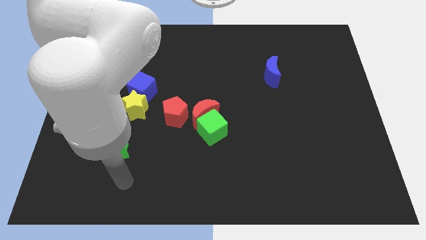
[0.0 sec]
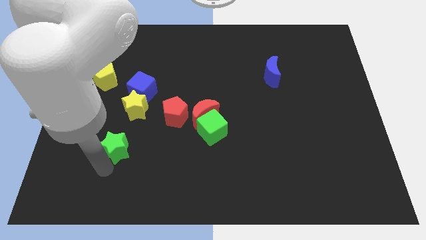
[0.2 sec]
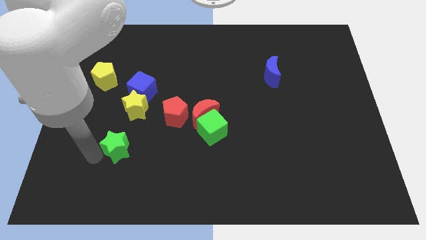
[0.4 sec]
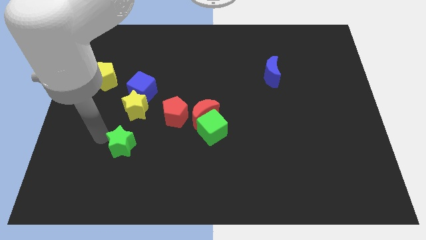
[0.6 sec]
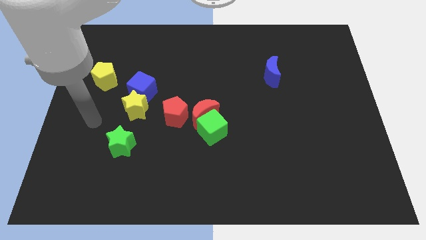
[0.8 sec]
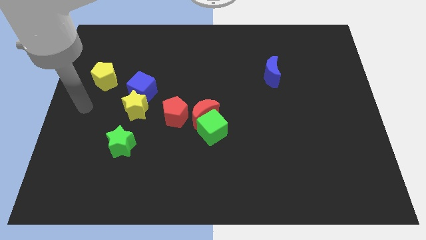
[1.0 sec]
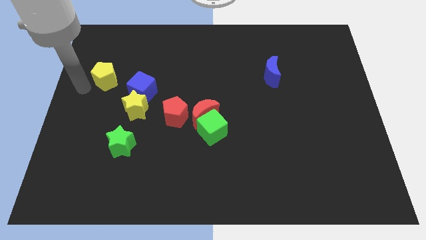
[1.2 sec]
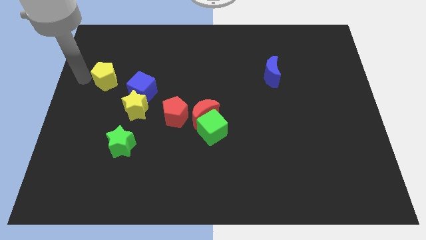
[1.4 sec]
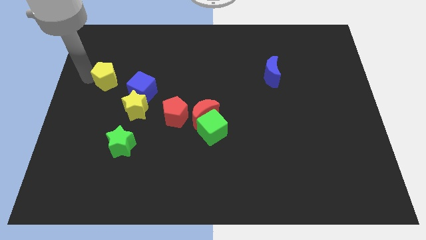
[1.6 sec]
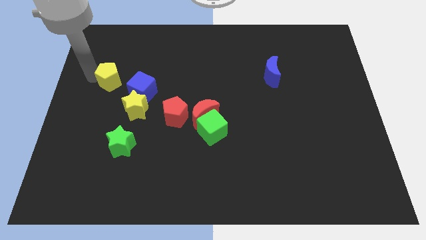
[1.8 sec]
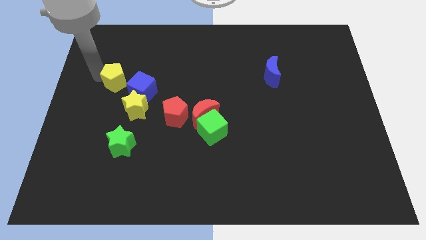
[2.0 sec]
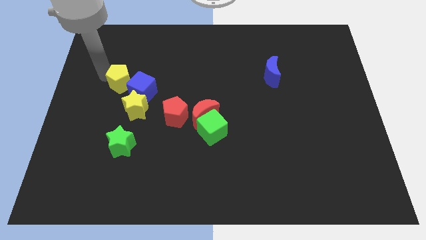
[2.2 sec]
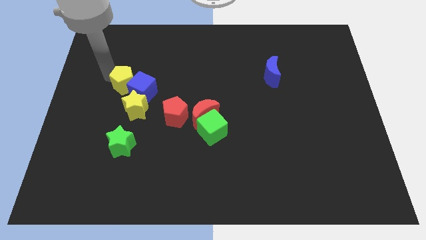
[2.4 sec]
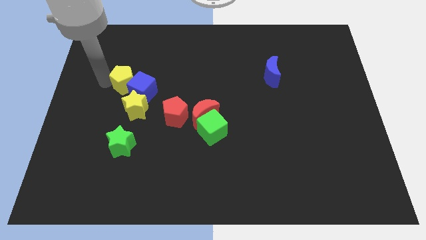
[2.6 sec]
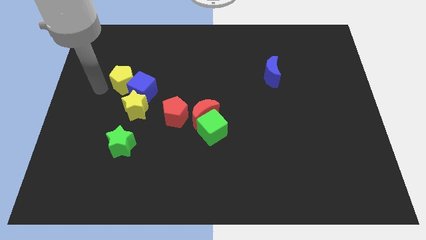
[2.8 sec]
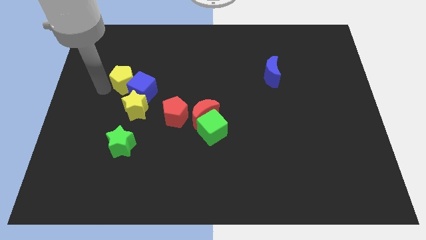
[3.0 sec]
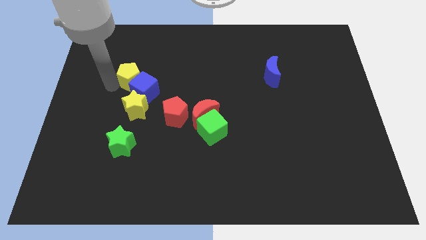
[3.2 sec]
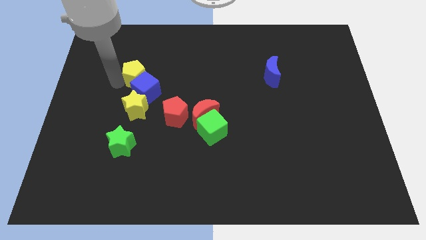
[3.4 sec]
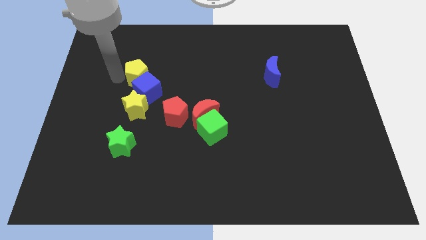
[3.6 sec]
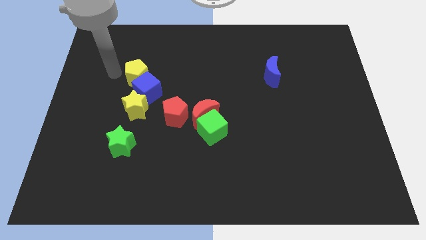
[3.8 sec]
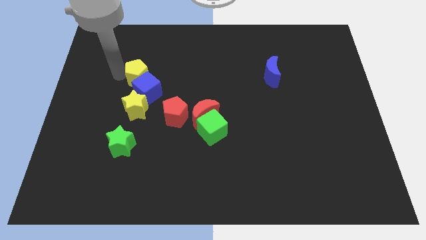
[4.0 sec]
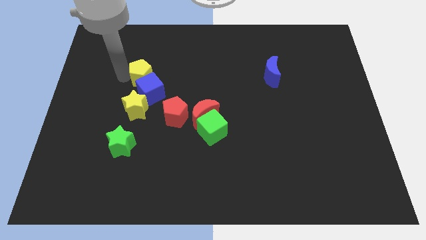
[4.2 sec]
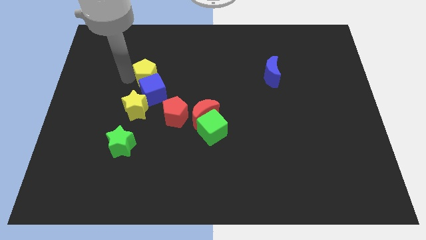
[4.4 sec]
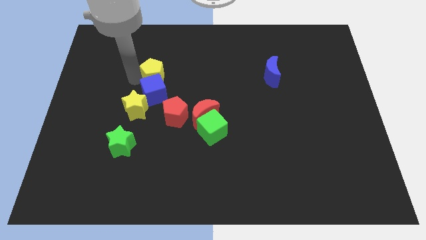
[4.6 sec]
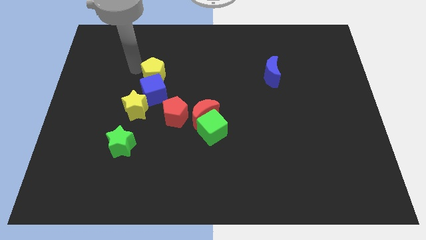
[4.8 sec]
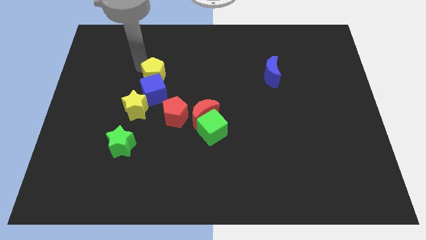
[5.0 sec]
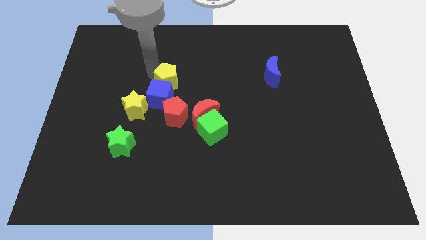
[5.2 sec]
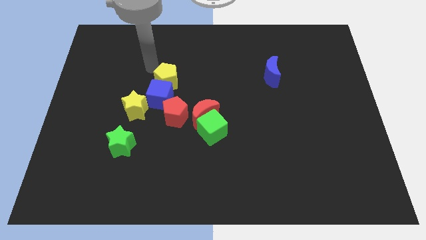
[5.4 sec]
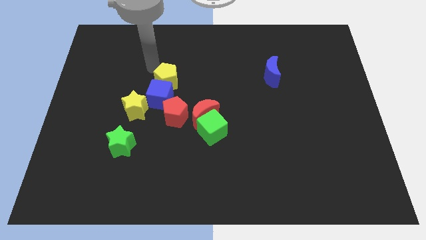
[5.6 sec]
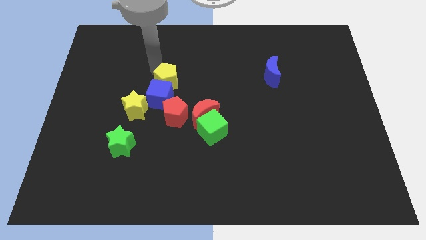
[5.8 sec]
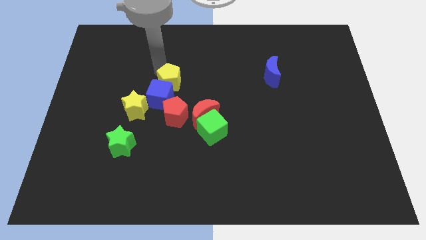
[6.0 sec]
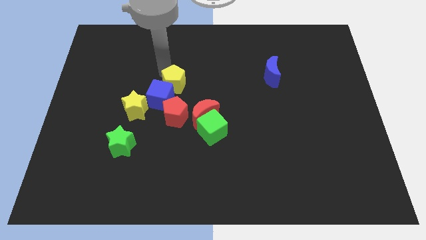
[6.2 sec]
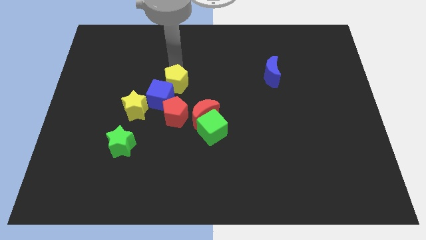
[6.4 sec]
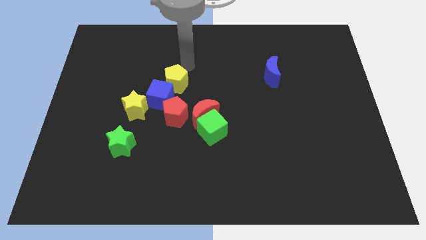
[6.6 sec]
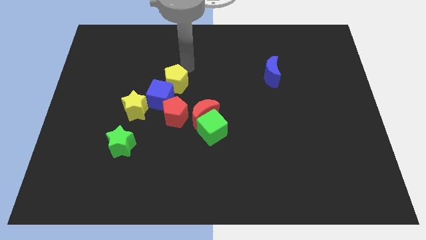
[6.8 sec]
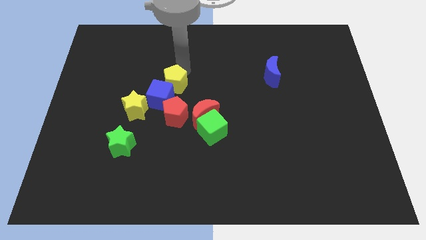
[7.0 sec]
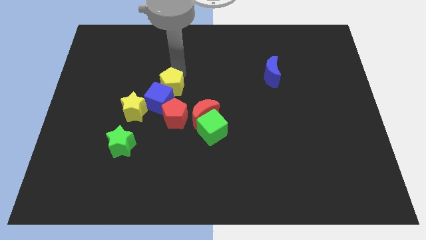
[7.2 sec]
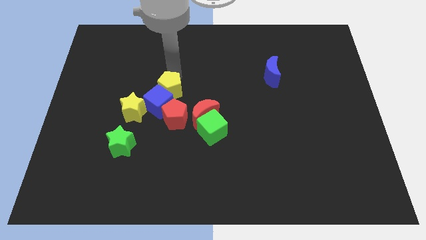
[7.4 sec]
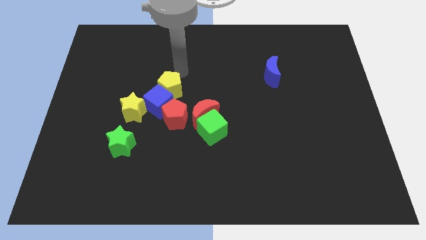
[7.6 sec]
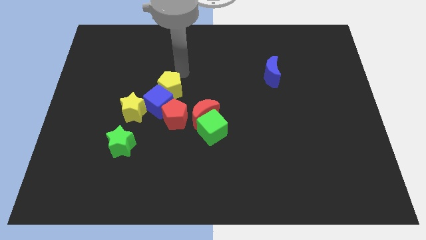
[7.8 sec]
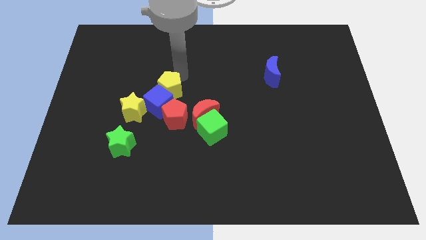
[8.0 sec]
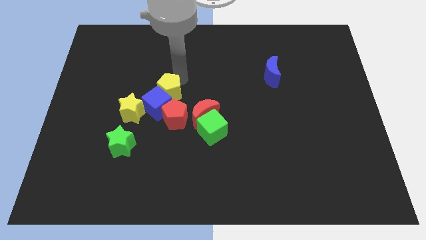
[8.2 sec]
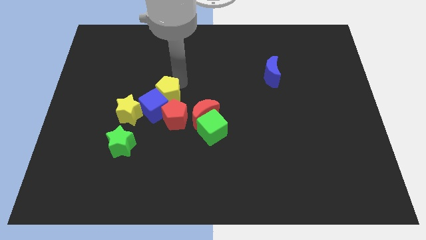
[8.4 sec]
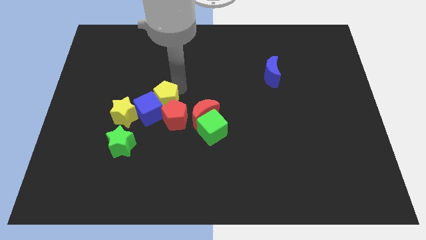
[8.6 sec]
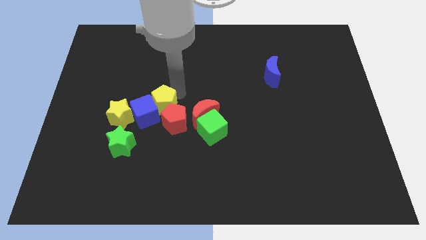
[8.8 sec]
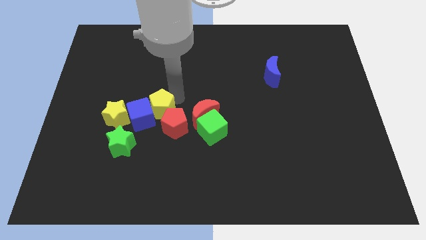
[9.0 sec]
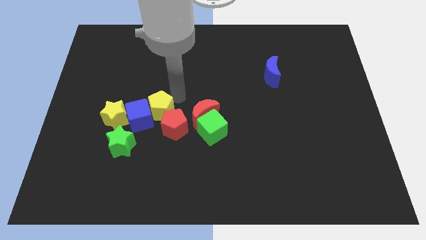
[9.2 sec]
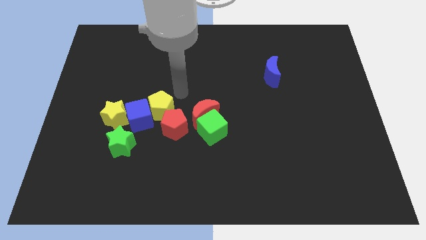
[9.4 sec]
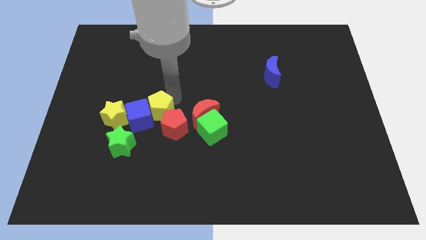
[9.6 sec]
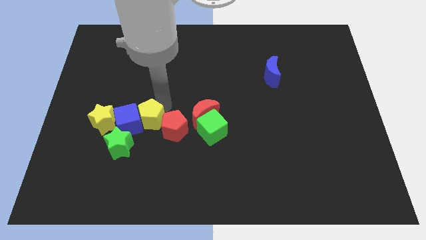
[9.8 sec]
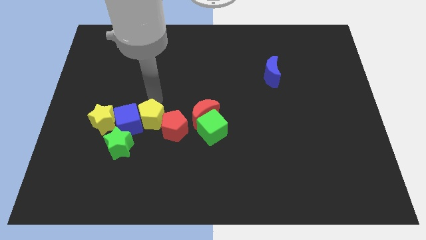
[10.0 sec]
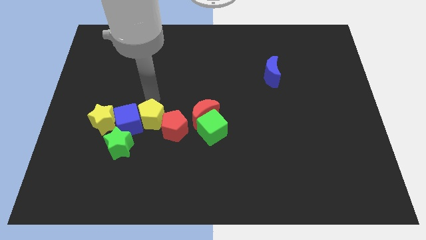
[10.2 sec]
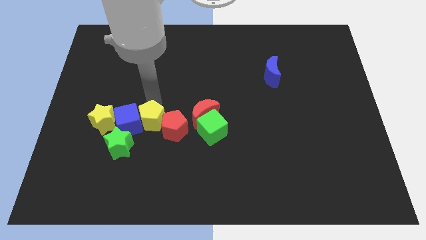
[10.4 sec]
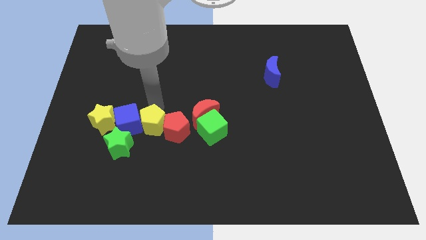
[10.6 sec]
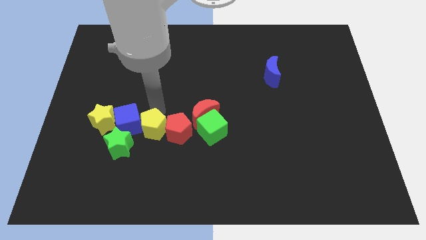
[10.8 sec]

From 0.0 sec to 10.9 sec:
push the yellow pentagon down and to the right diagonally

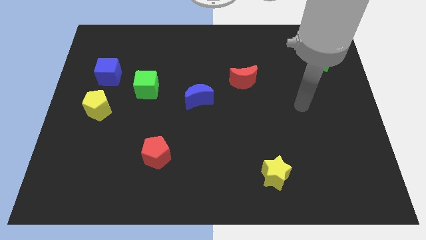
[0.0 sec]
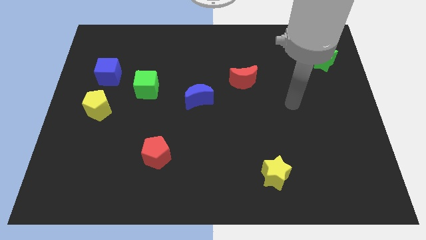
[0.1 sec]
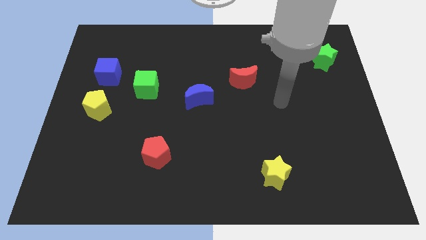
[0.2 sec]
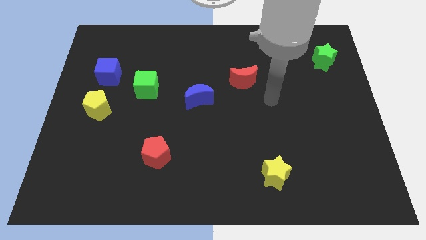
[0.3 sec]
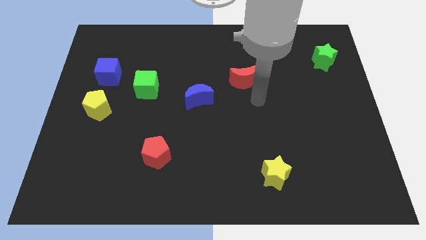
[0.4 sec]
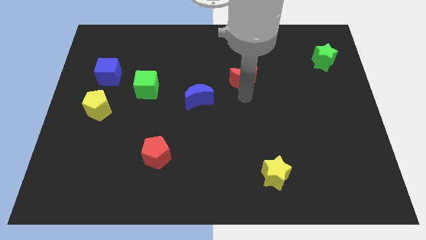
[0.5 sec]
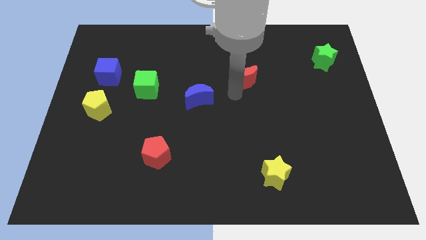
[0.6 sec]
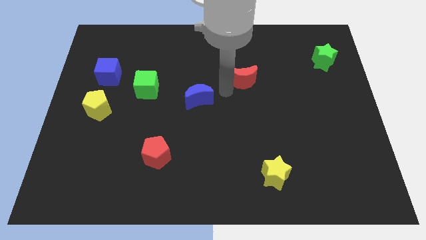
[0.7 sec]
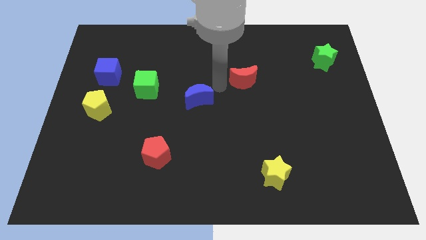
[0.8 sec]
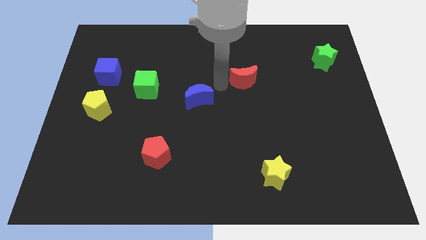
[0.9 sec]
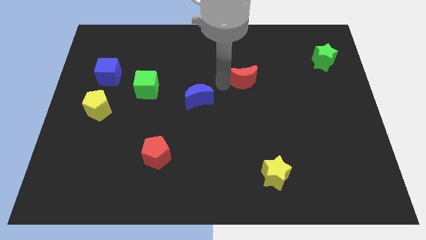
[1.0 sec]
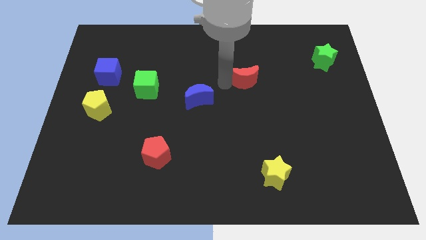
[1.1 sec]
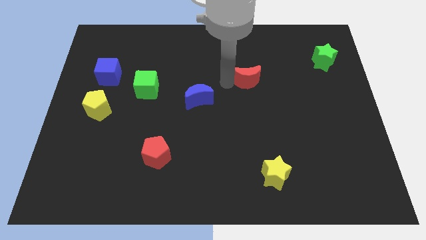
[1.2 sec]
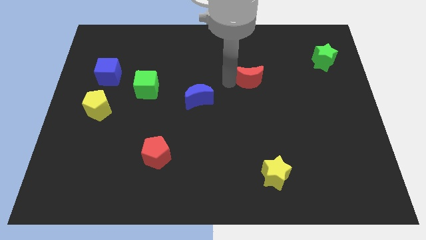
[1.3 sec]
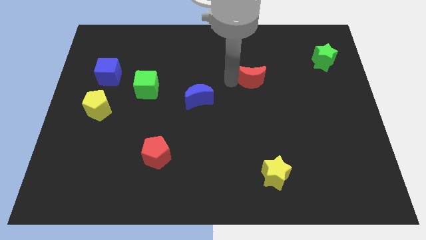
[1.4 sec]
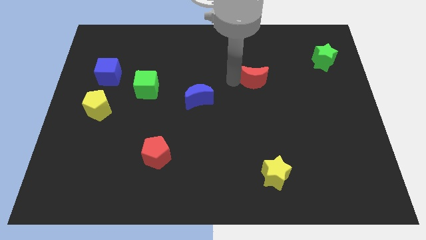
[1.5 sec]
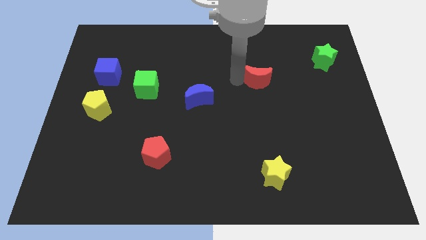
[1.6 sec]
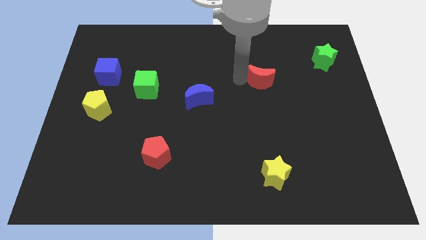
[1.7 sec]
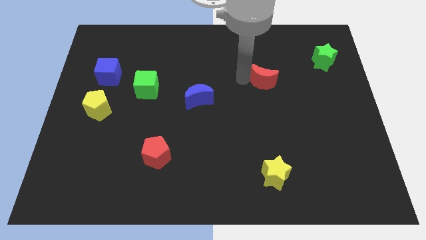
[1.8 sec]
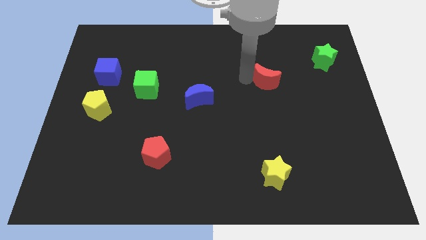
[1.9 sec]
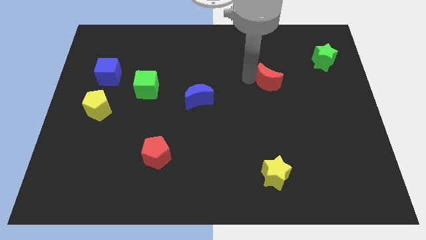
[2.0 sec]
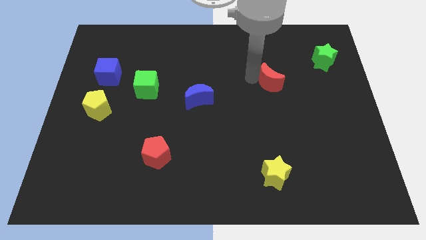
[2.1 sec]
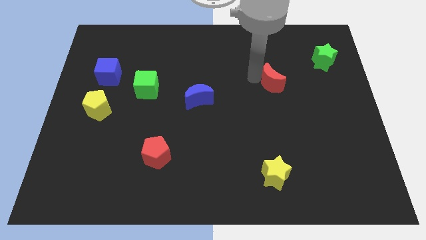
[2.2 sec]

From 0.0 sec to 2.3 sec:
move the red moon to the right slightly
